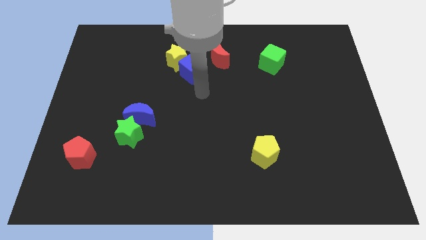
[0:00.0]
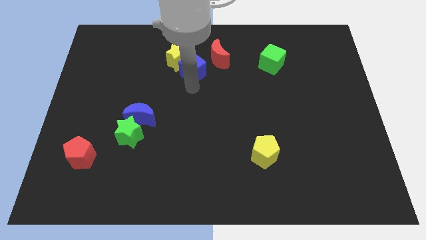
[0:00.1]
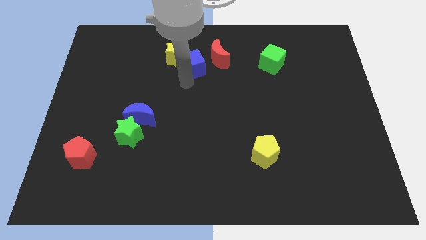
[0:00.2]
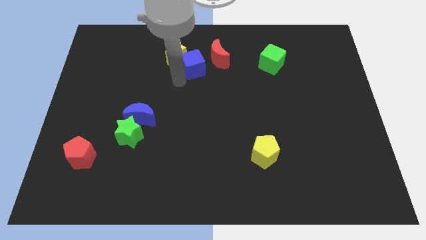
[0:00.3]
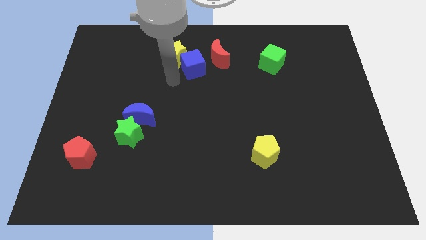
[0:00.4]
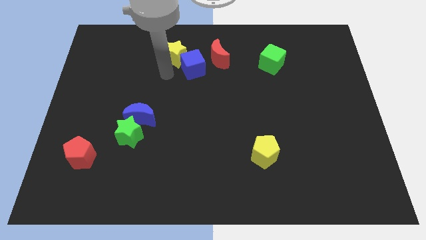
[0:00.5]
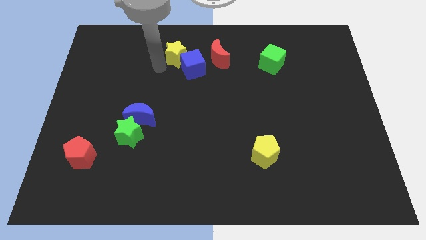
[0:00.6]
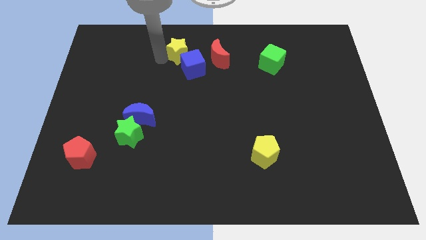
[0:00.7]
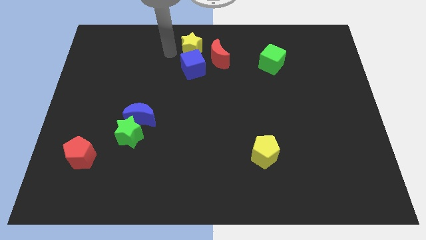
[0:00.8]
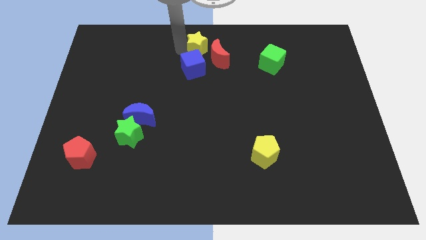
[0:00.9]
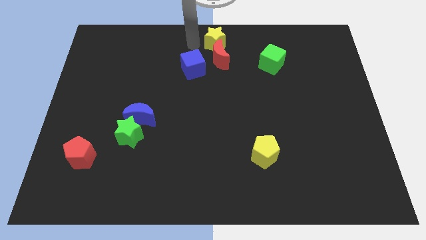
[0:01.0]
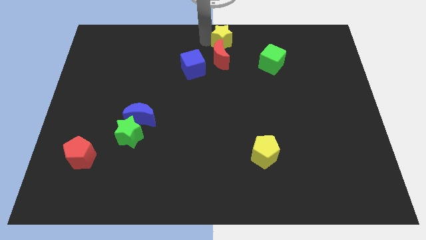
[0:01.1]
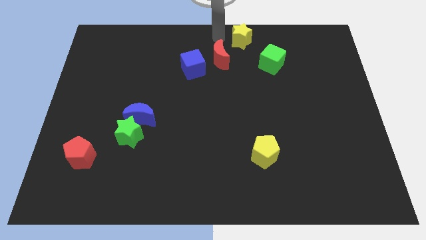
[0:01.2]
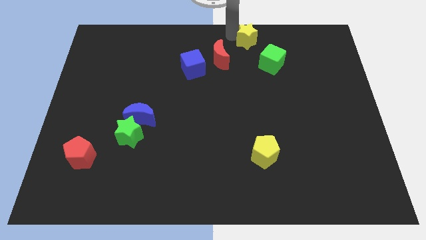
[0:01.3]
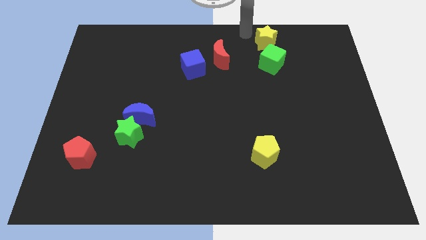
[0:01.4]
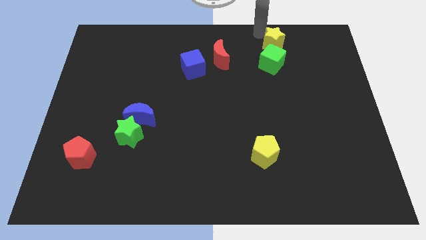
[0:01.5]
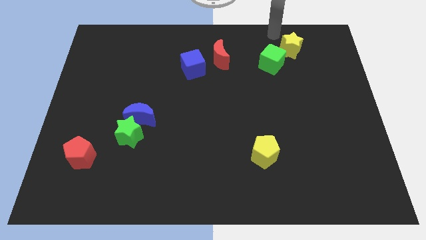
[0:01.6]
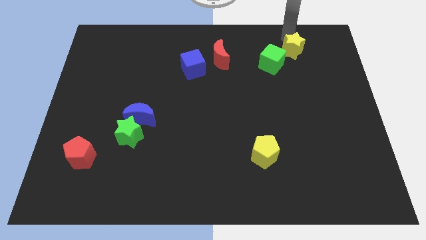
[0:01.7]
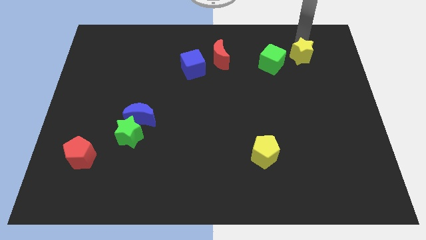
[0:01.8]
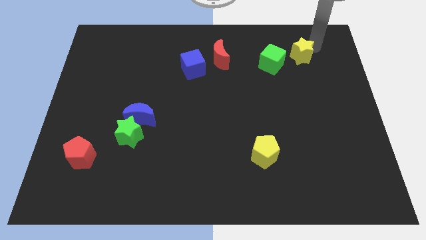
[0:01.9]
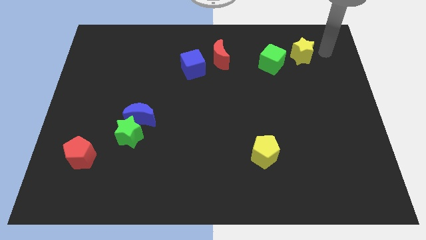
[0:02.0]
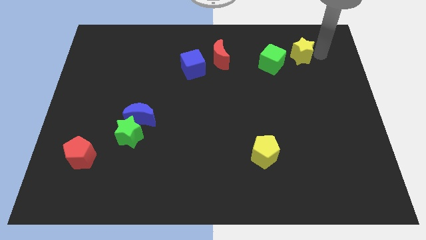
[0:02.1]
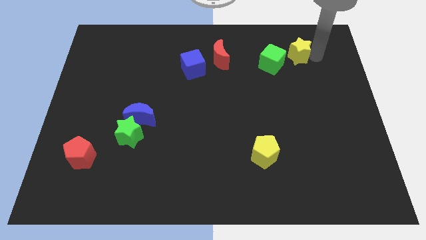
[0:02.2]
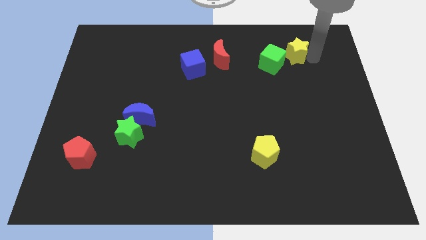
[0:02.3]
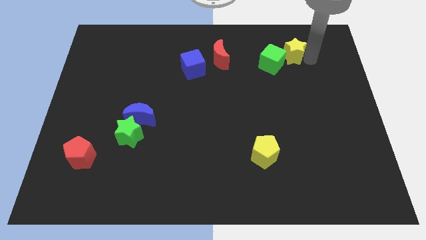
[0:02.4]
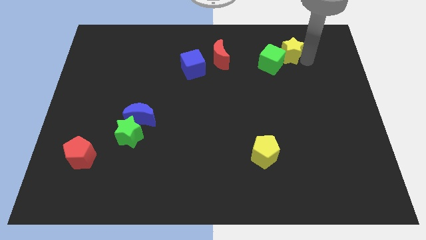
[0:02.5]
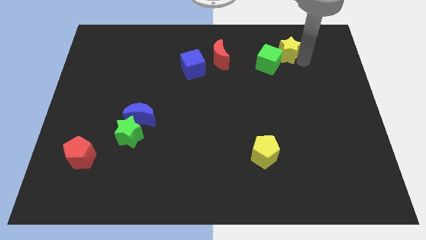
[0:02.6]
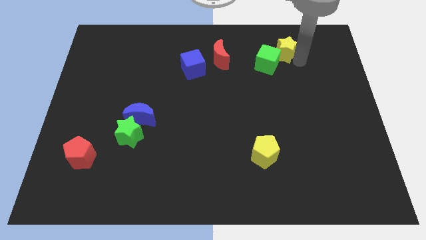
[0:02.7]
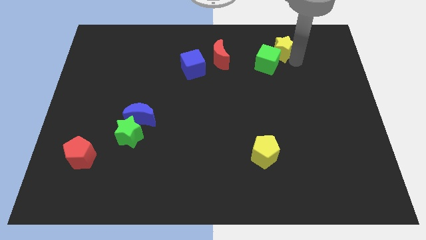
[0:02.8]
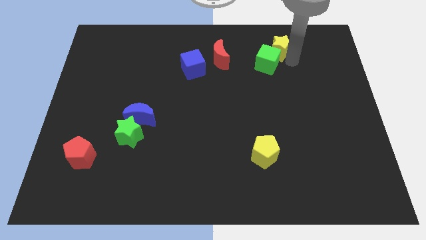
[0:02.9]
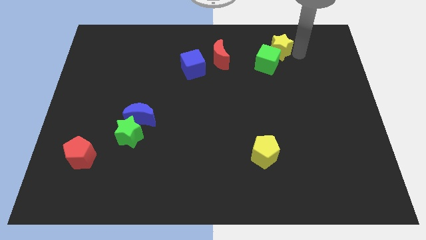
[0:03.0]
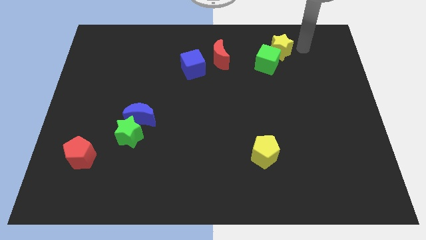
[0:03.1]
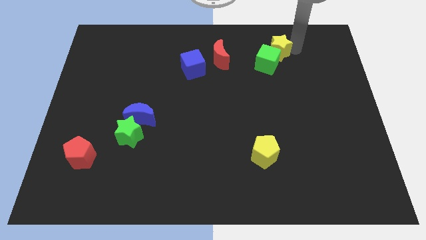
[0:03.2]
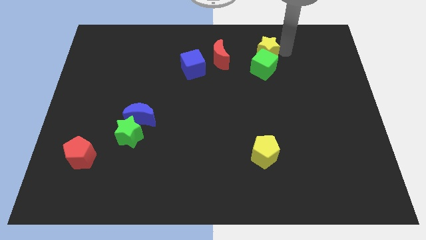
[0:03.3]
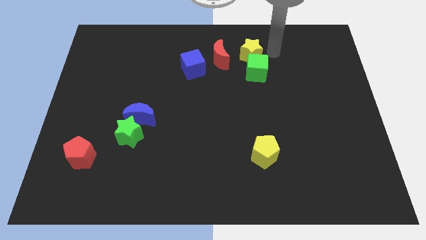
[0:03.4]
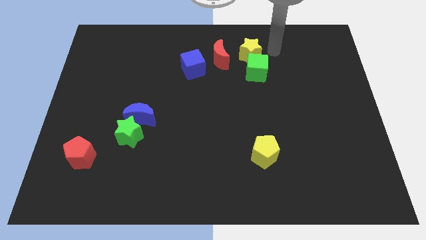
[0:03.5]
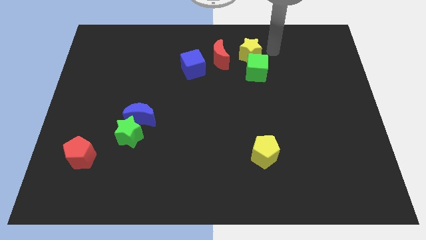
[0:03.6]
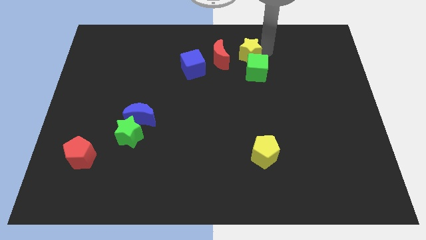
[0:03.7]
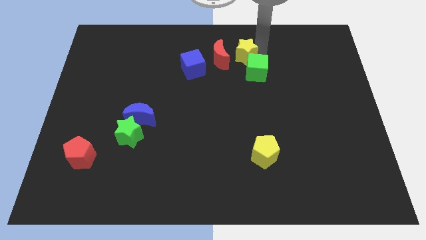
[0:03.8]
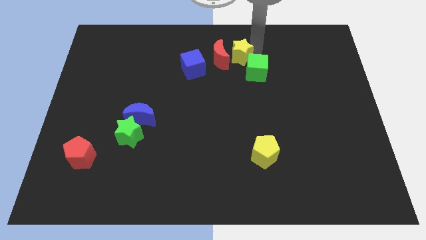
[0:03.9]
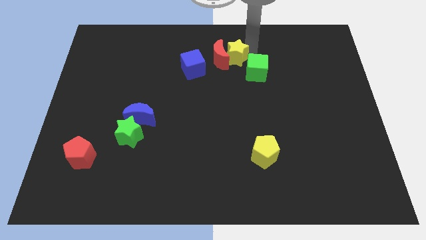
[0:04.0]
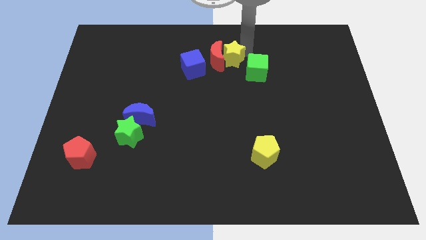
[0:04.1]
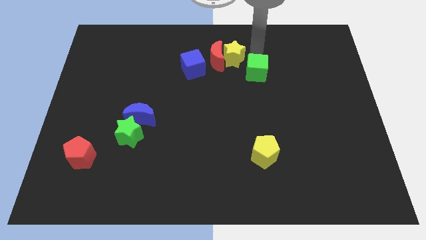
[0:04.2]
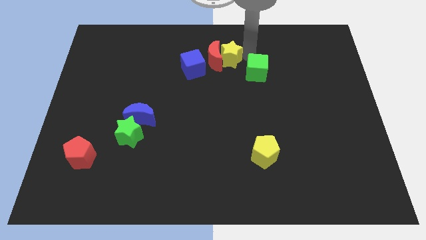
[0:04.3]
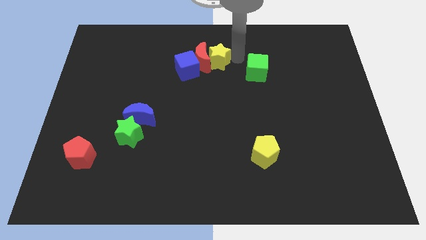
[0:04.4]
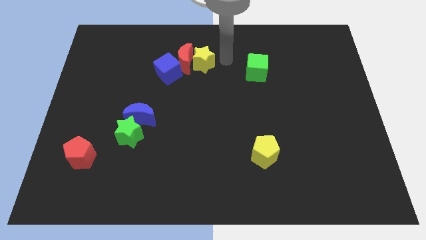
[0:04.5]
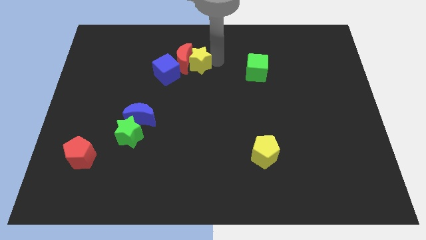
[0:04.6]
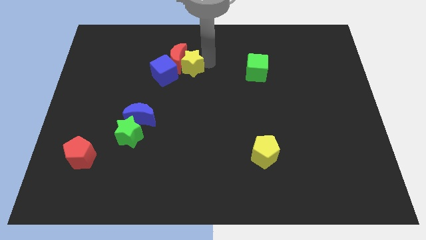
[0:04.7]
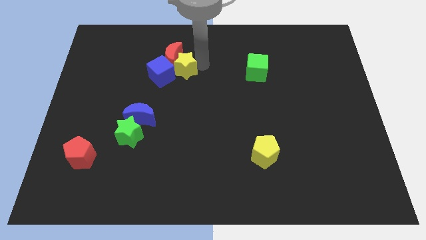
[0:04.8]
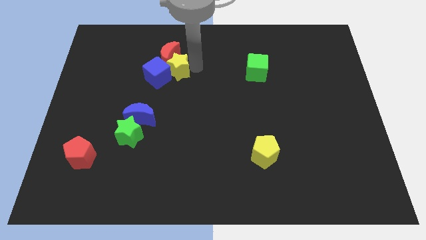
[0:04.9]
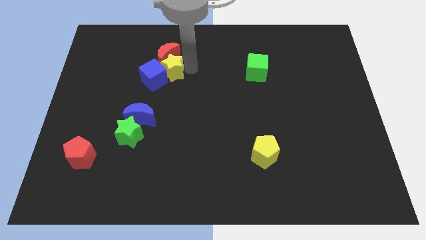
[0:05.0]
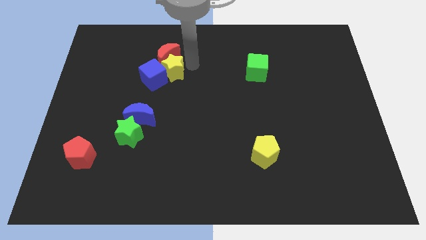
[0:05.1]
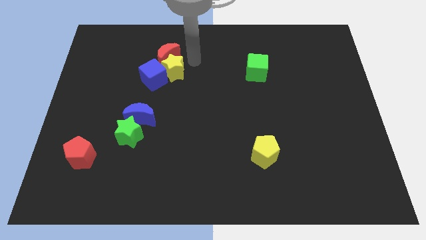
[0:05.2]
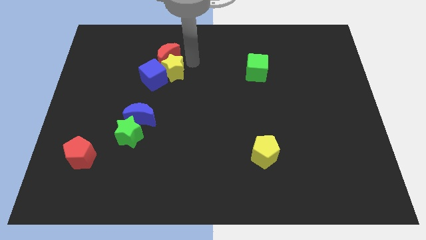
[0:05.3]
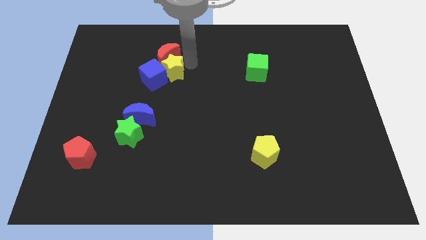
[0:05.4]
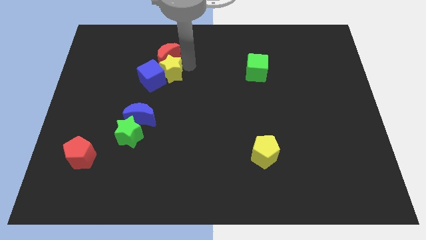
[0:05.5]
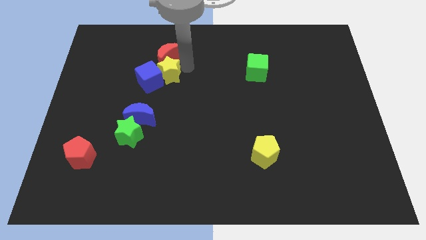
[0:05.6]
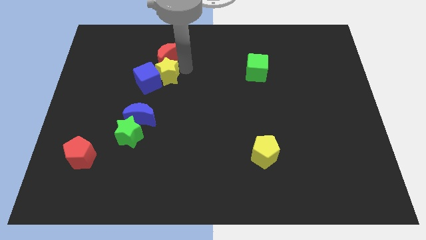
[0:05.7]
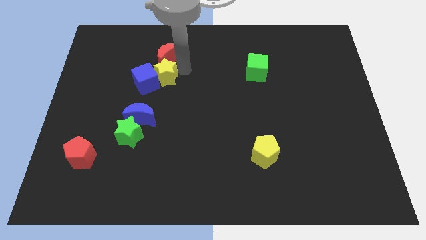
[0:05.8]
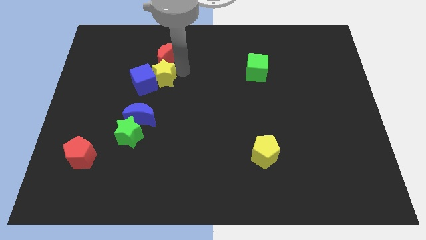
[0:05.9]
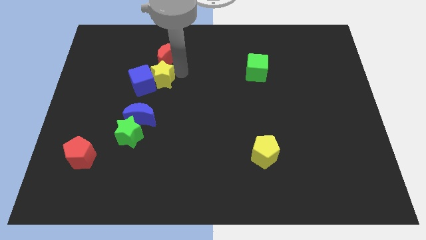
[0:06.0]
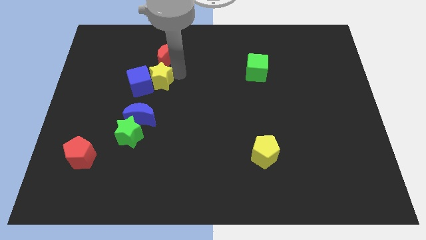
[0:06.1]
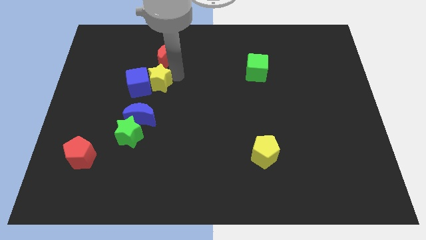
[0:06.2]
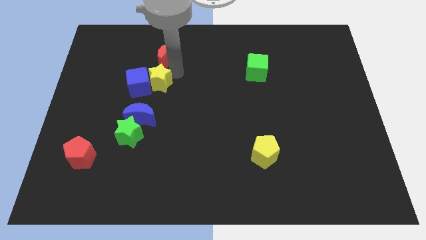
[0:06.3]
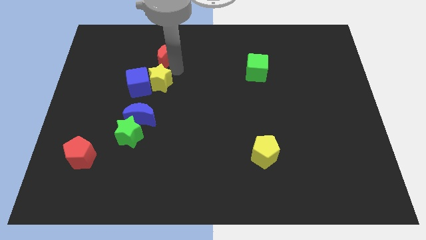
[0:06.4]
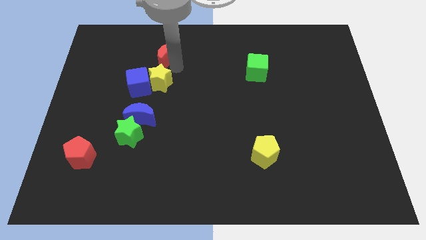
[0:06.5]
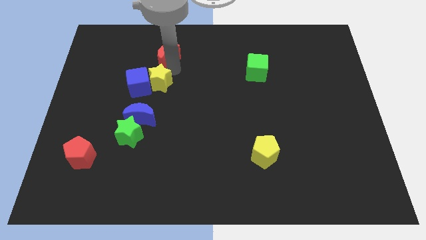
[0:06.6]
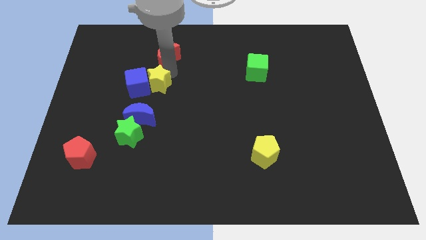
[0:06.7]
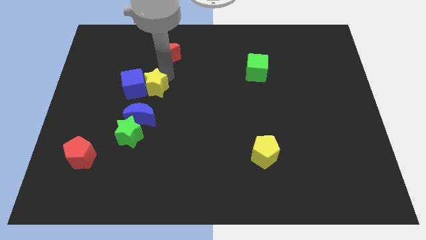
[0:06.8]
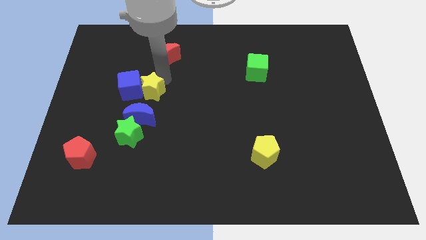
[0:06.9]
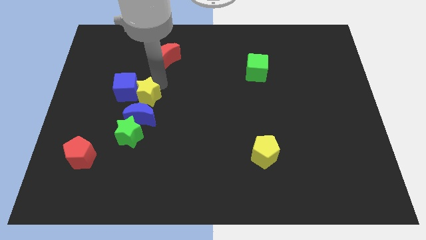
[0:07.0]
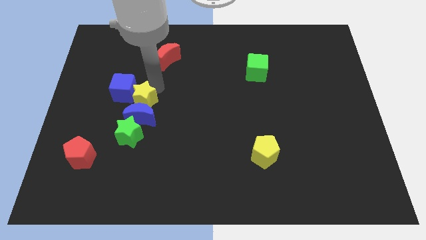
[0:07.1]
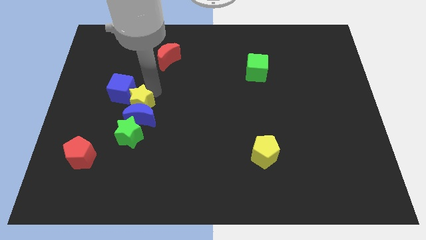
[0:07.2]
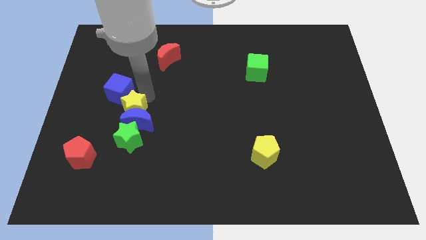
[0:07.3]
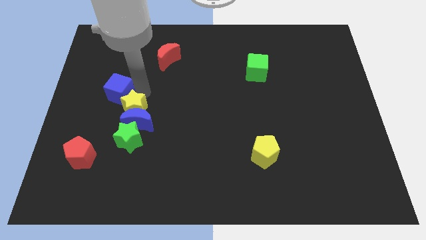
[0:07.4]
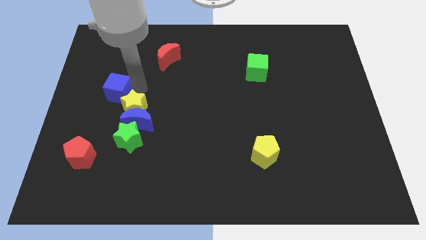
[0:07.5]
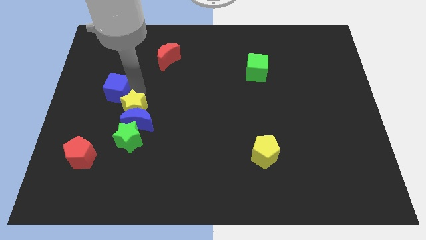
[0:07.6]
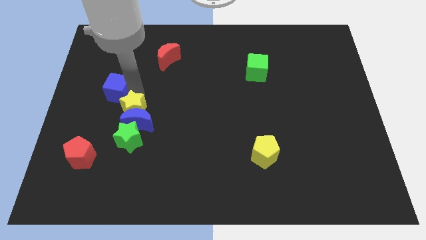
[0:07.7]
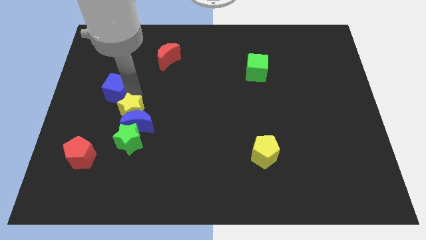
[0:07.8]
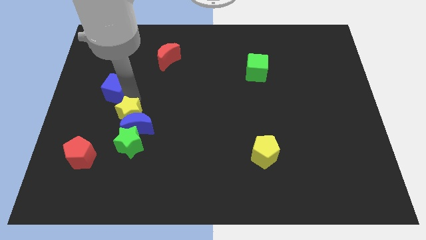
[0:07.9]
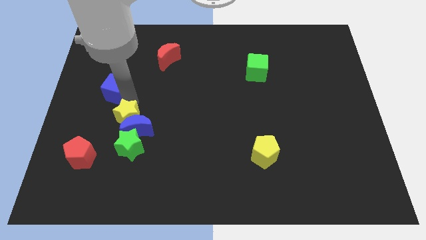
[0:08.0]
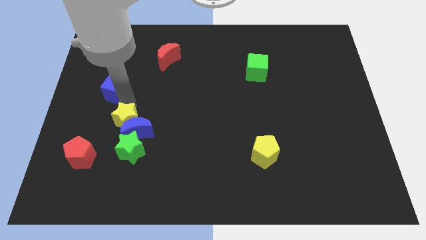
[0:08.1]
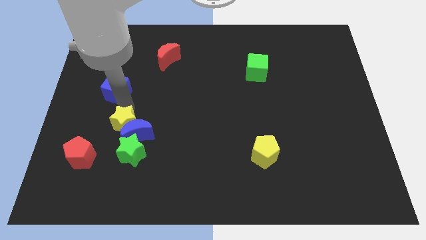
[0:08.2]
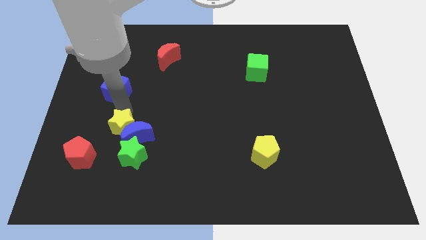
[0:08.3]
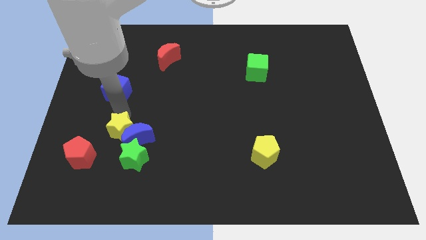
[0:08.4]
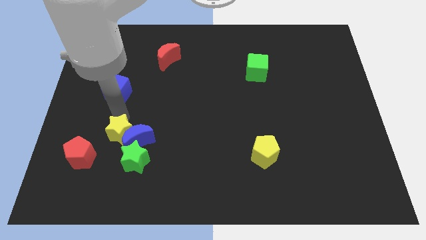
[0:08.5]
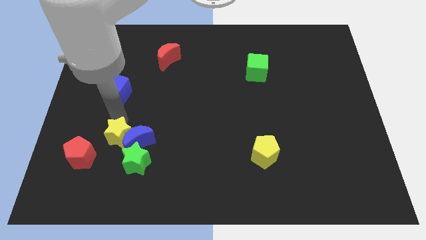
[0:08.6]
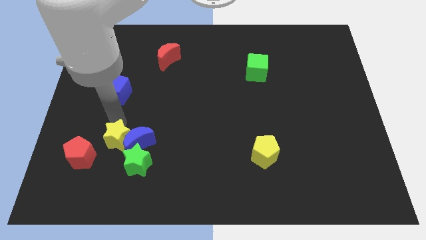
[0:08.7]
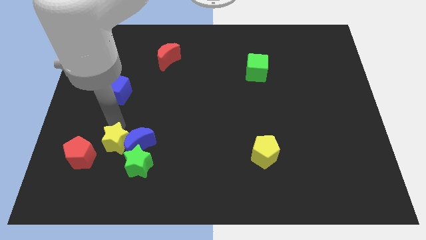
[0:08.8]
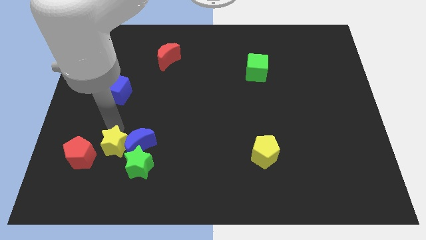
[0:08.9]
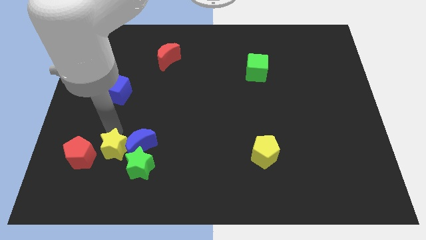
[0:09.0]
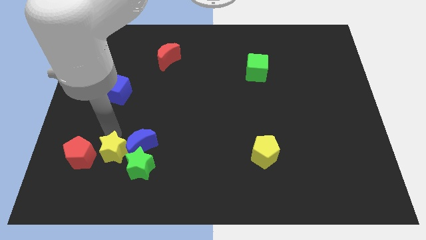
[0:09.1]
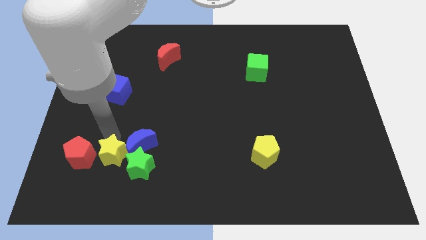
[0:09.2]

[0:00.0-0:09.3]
slide the yellow star to the green star
